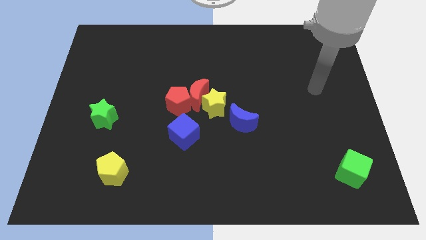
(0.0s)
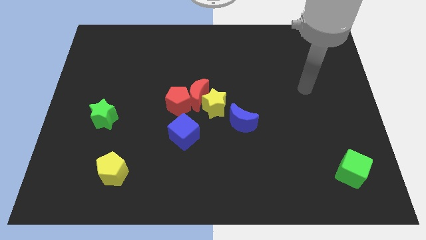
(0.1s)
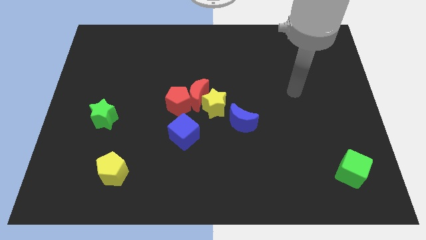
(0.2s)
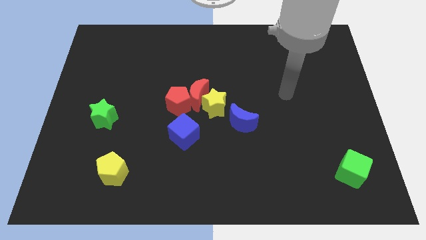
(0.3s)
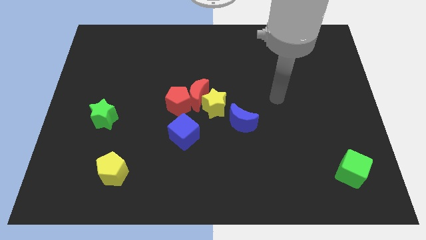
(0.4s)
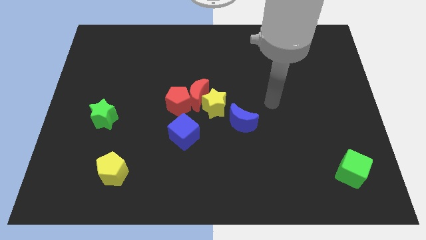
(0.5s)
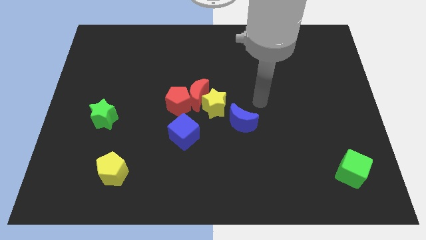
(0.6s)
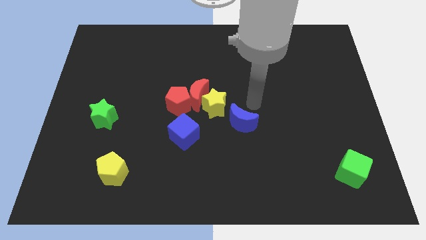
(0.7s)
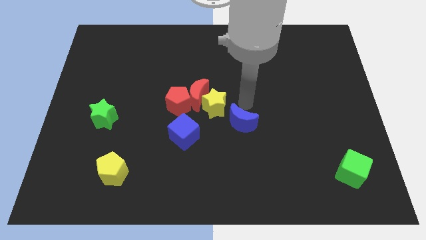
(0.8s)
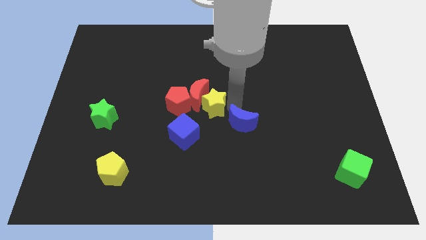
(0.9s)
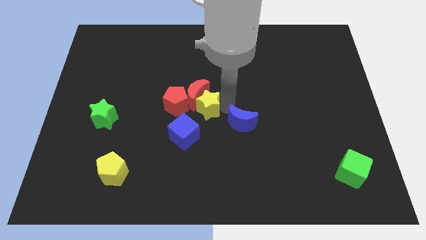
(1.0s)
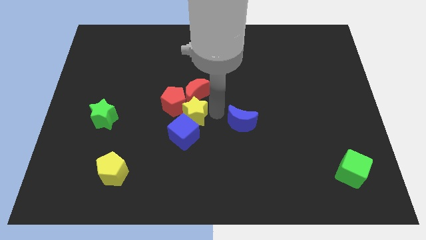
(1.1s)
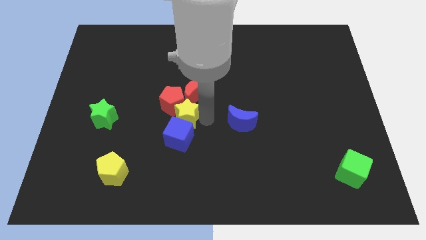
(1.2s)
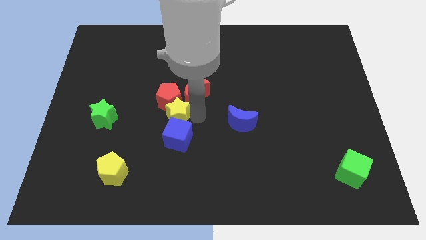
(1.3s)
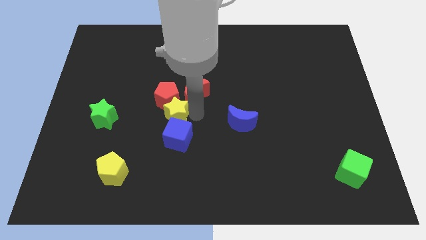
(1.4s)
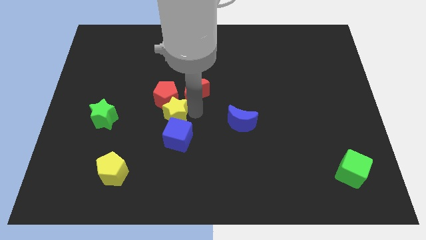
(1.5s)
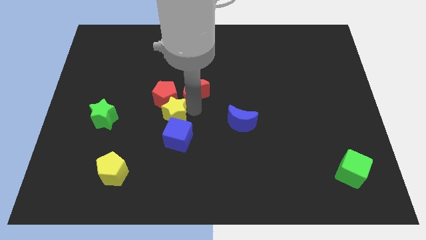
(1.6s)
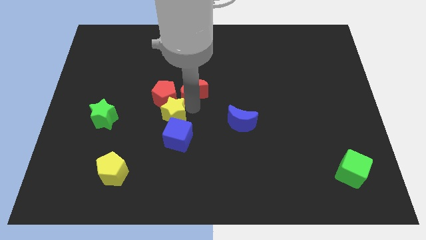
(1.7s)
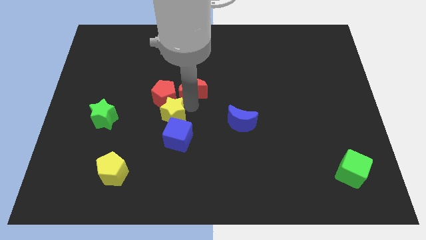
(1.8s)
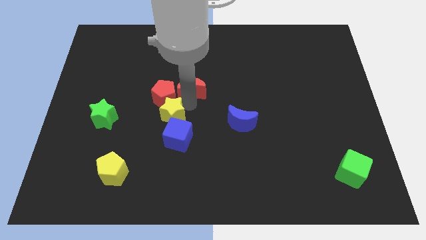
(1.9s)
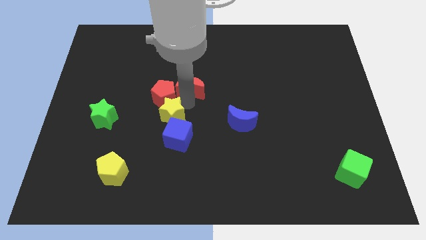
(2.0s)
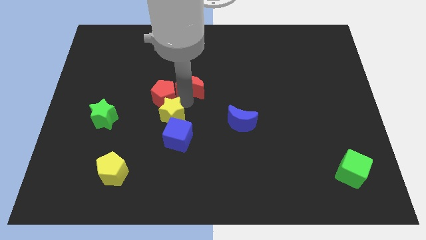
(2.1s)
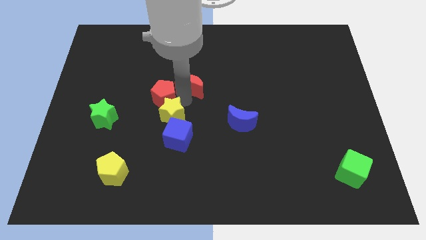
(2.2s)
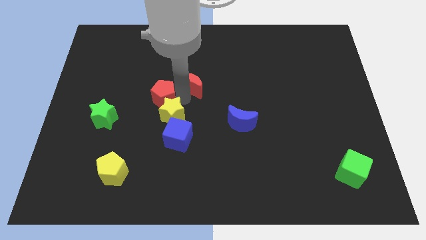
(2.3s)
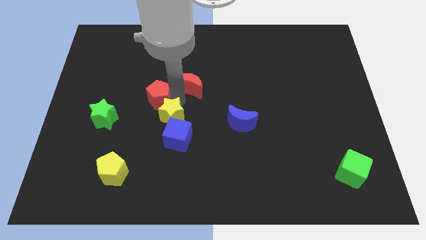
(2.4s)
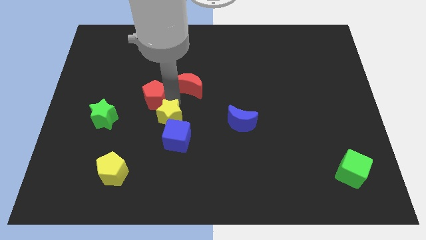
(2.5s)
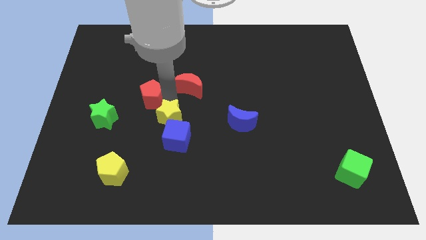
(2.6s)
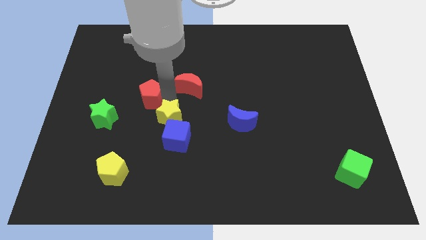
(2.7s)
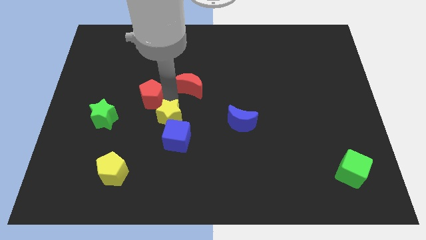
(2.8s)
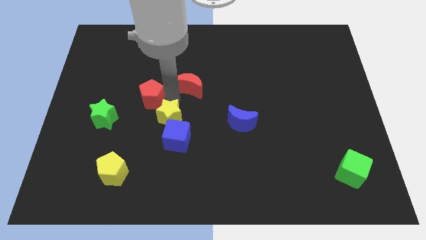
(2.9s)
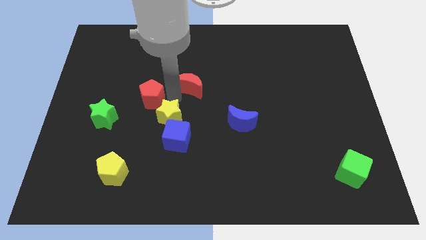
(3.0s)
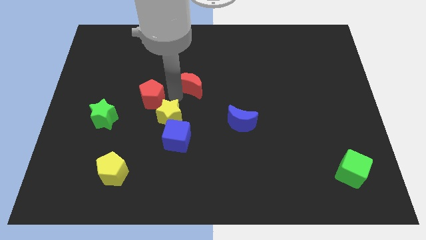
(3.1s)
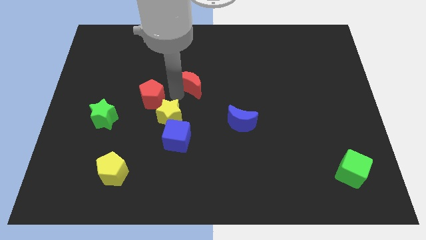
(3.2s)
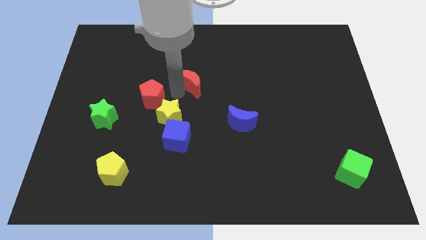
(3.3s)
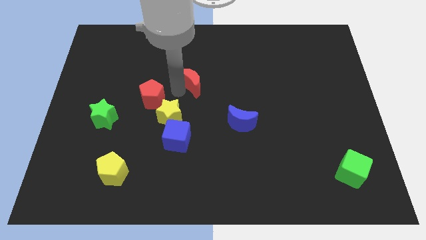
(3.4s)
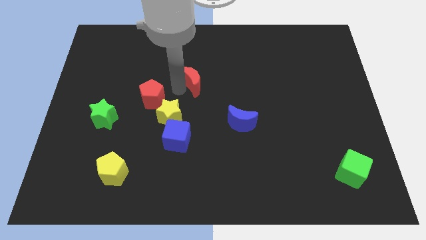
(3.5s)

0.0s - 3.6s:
pull the red moon apart from the red pentagon and yellow star

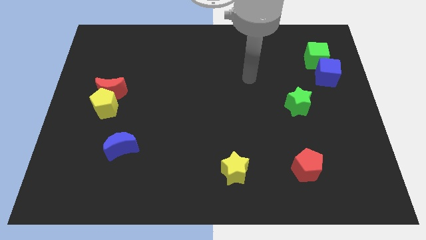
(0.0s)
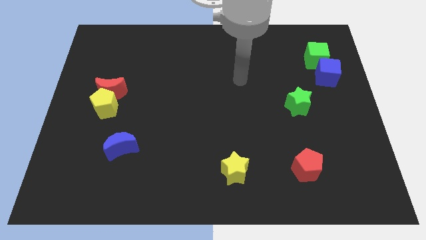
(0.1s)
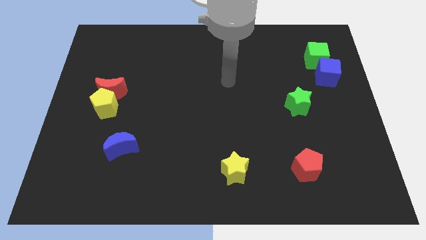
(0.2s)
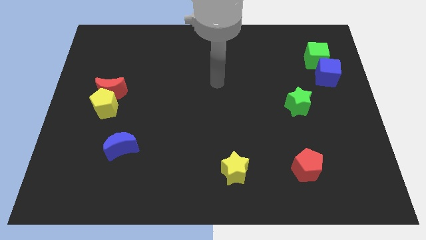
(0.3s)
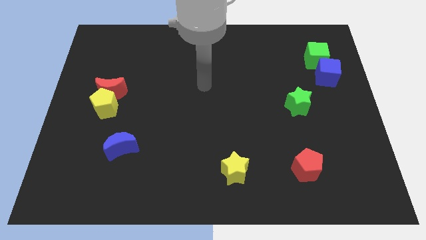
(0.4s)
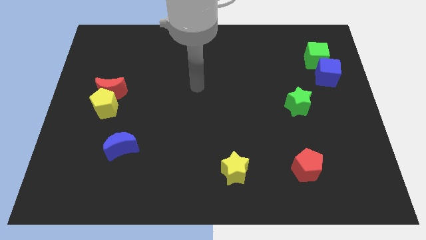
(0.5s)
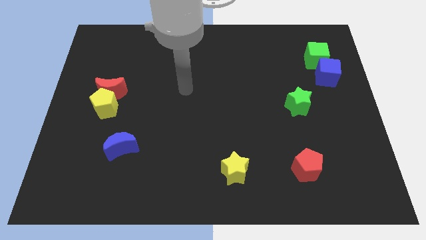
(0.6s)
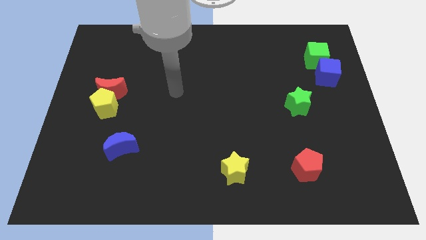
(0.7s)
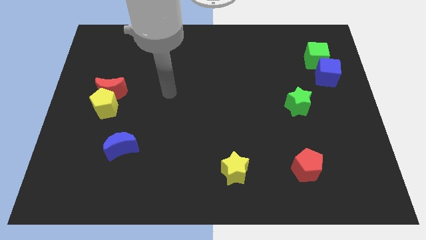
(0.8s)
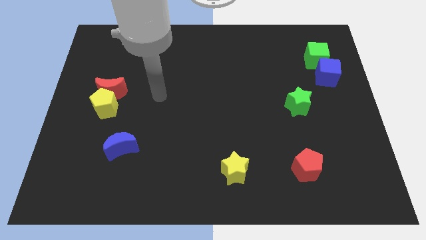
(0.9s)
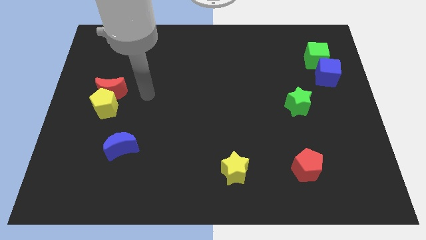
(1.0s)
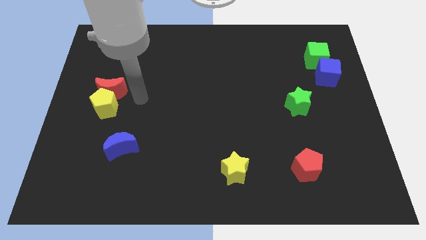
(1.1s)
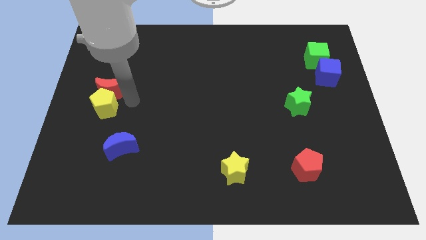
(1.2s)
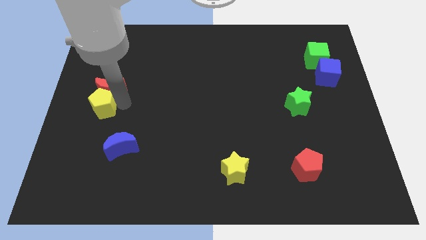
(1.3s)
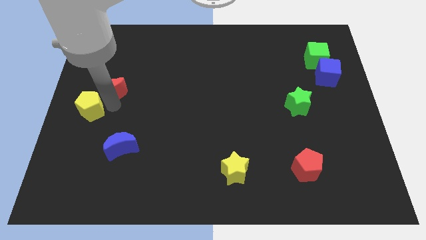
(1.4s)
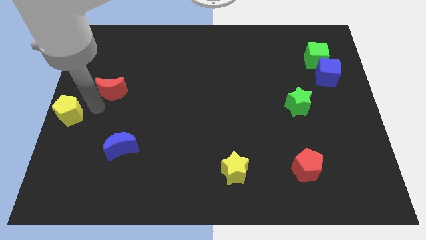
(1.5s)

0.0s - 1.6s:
separate the red moon from the yellow pentagon

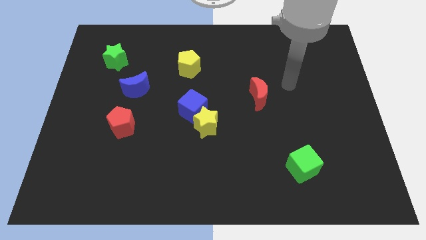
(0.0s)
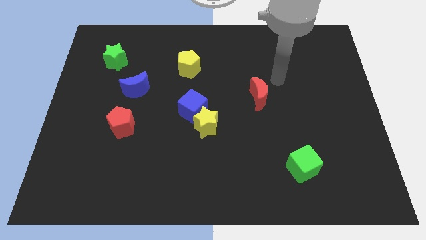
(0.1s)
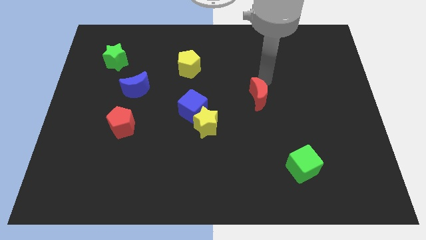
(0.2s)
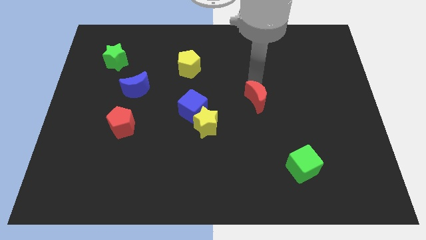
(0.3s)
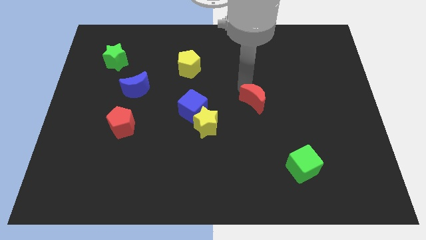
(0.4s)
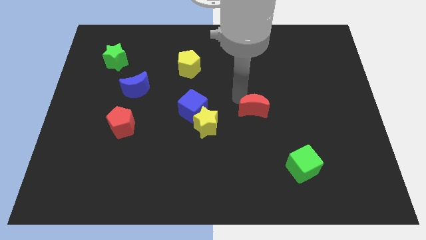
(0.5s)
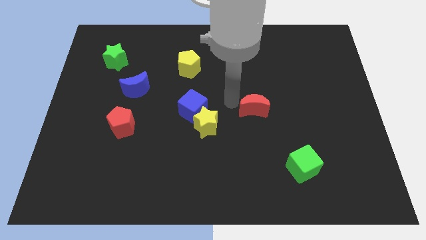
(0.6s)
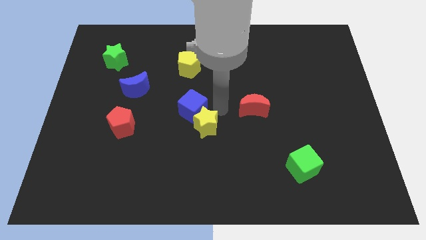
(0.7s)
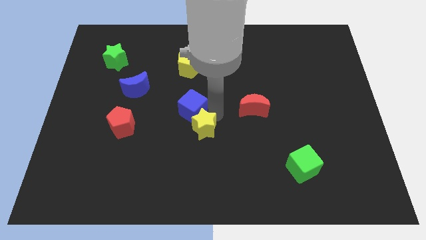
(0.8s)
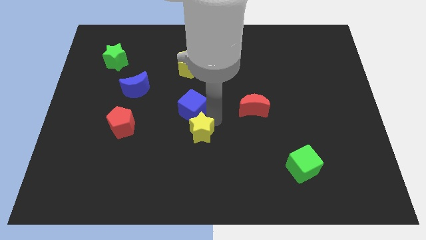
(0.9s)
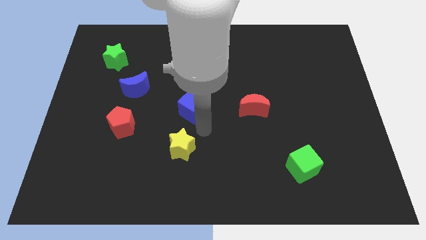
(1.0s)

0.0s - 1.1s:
pull the blue cube apart from the yellow star

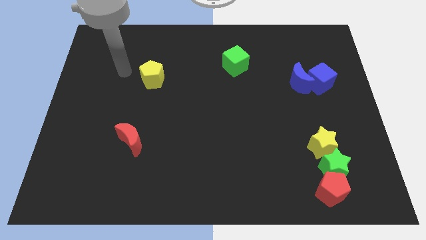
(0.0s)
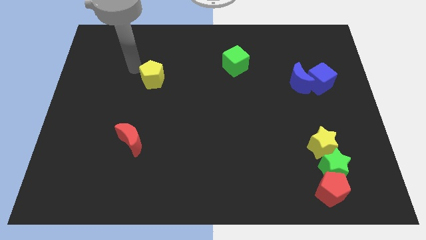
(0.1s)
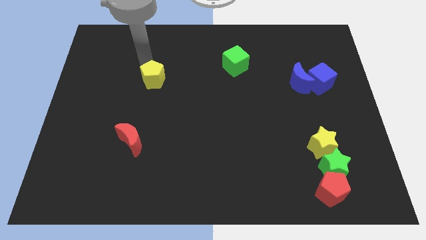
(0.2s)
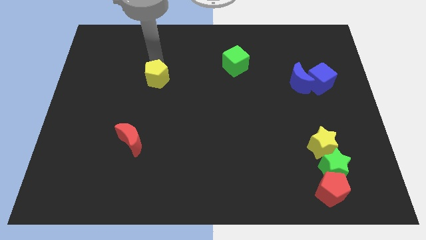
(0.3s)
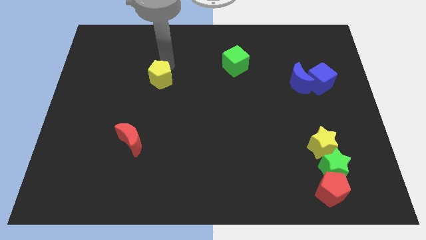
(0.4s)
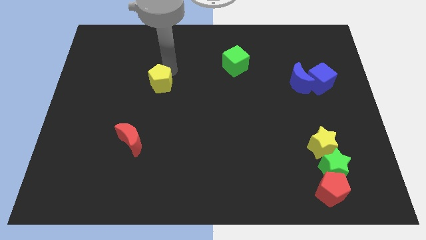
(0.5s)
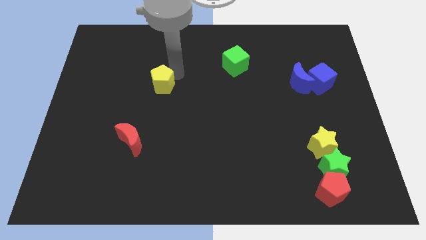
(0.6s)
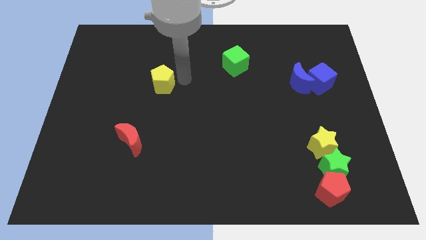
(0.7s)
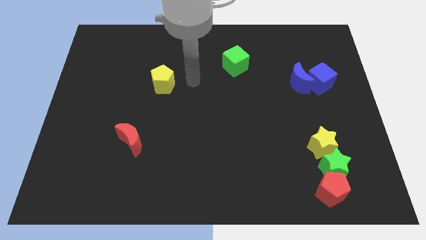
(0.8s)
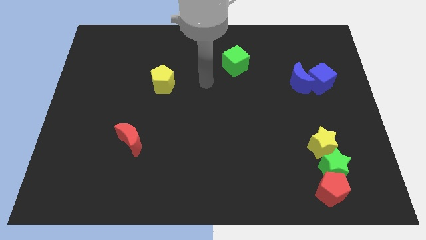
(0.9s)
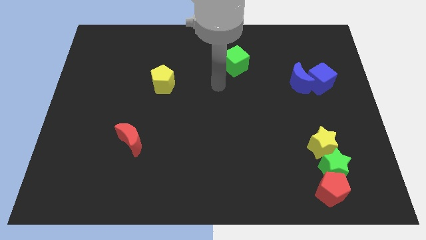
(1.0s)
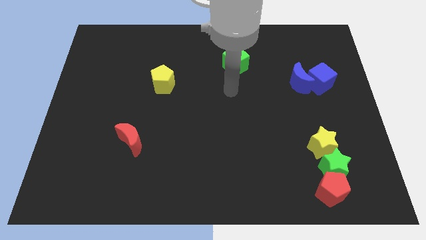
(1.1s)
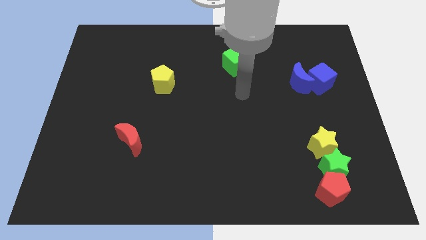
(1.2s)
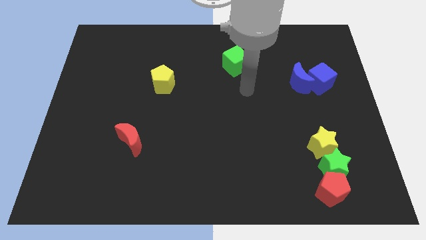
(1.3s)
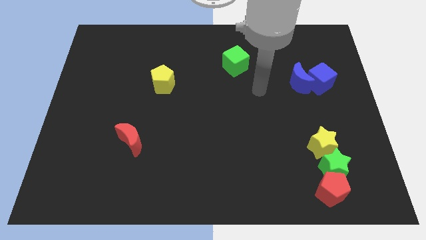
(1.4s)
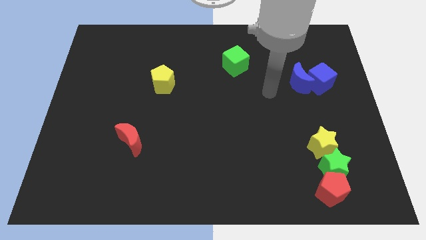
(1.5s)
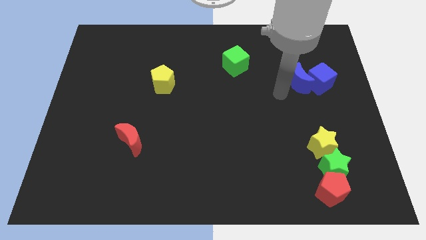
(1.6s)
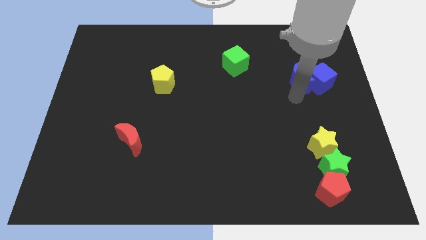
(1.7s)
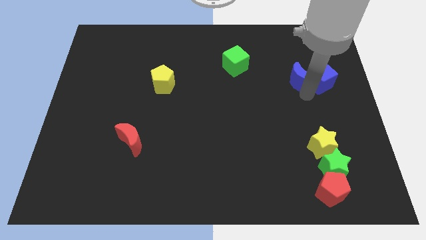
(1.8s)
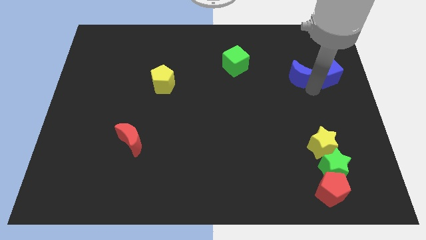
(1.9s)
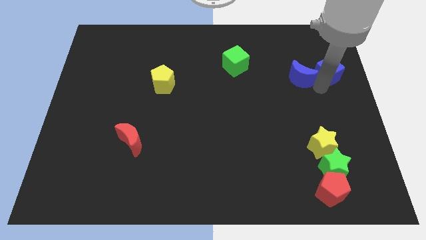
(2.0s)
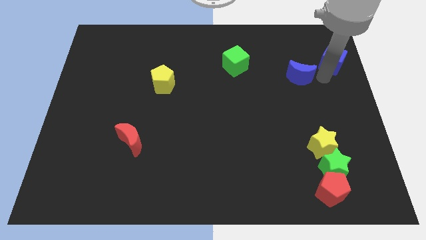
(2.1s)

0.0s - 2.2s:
pull the blue moon apart from the blue cube

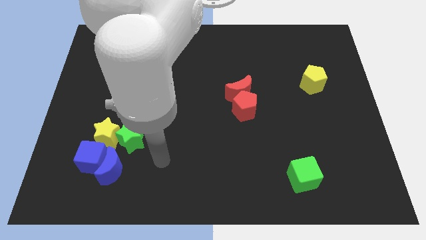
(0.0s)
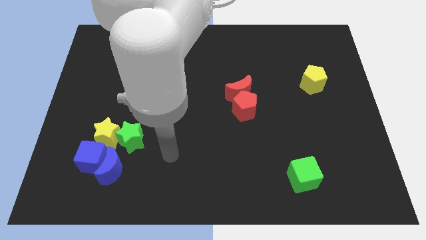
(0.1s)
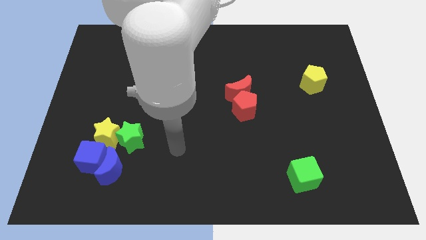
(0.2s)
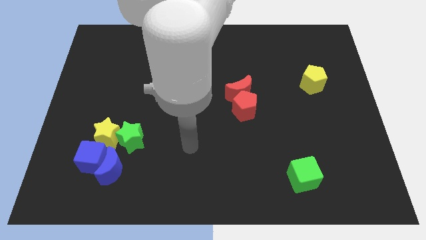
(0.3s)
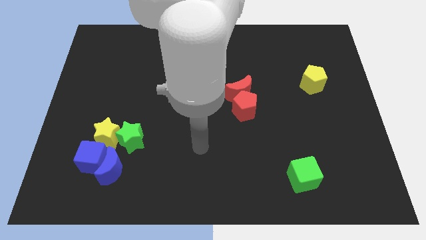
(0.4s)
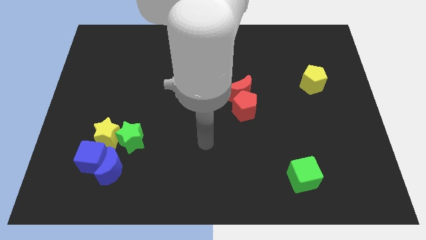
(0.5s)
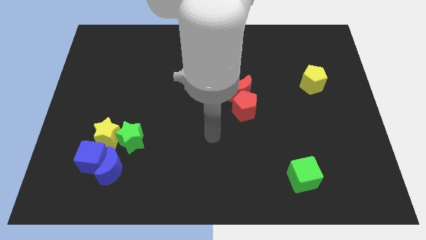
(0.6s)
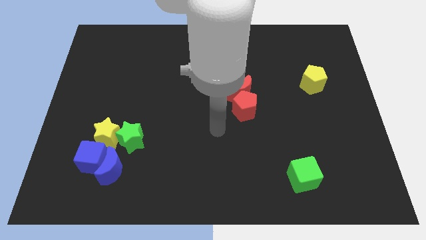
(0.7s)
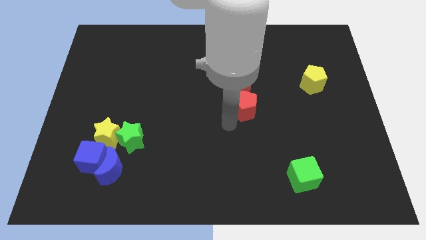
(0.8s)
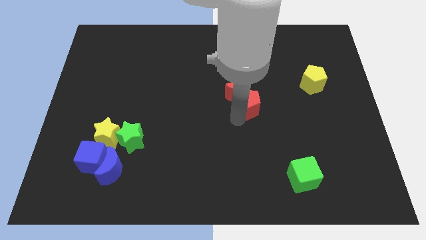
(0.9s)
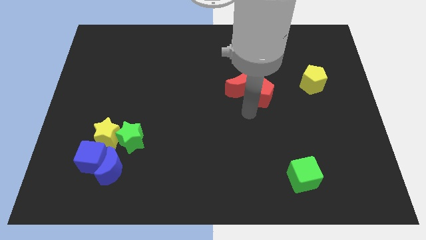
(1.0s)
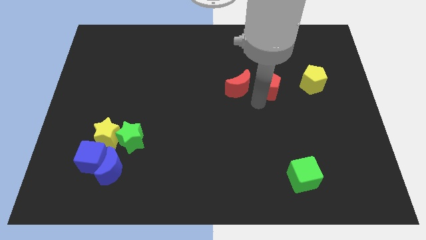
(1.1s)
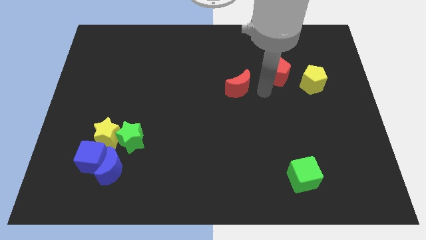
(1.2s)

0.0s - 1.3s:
move the red moon away from the red pentagon
